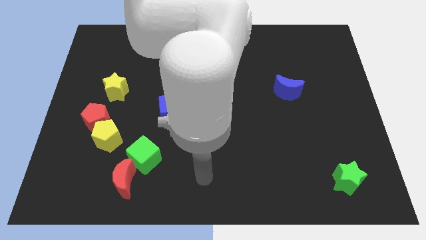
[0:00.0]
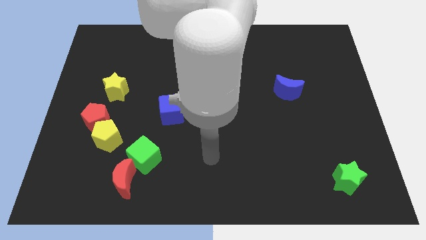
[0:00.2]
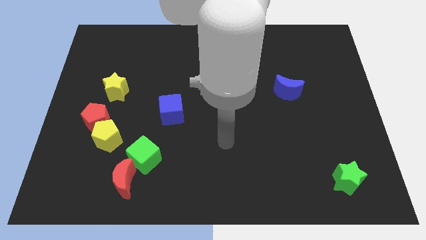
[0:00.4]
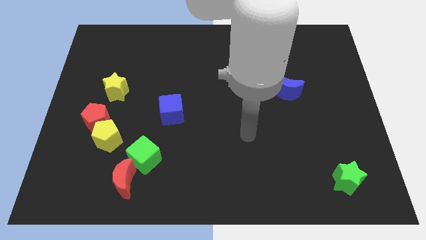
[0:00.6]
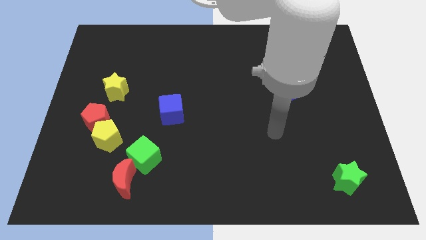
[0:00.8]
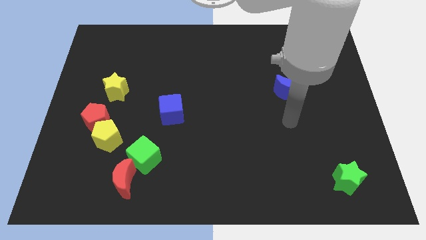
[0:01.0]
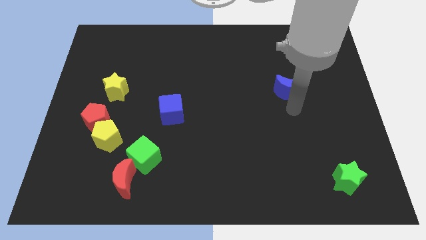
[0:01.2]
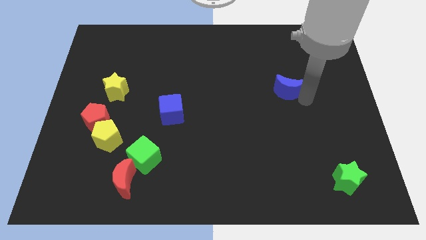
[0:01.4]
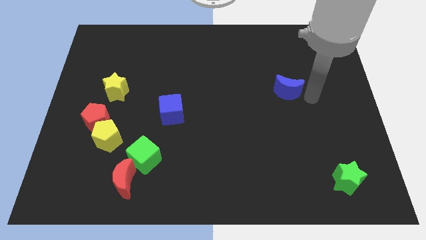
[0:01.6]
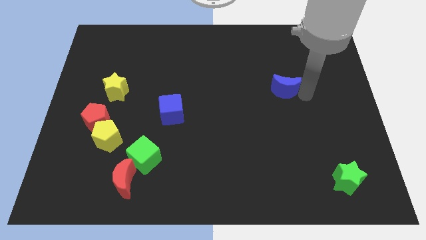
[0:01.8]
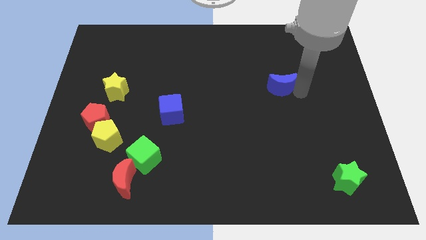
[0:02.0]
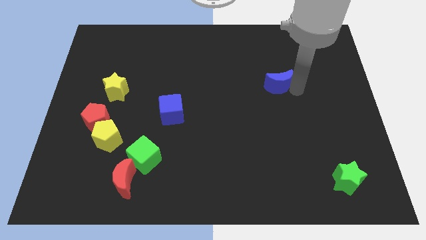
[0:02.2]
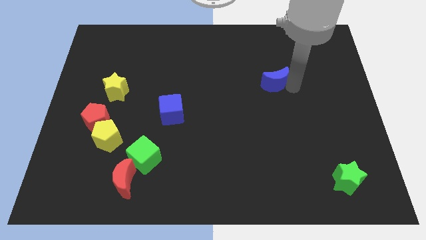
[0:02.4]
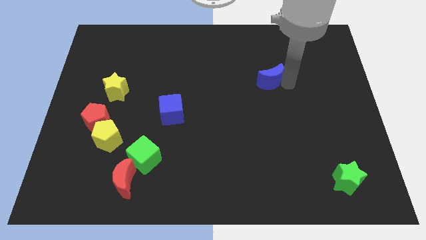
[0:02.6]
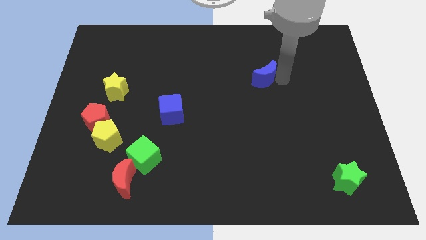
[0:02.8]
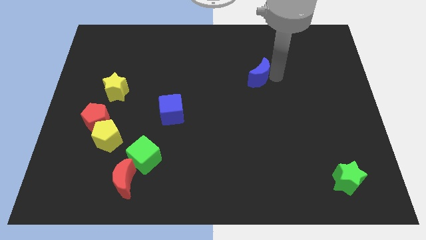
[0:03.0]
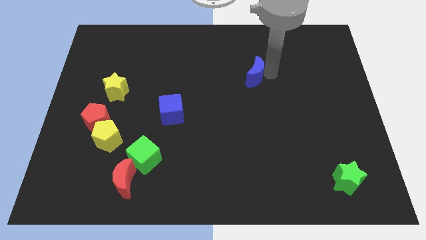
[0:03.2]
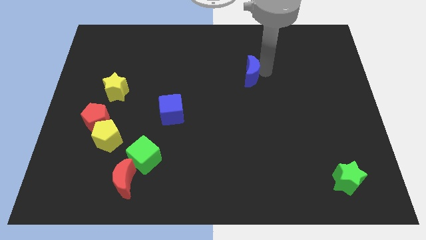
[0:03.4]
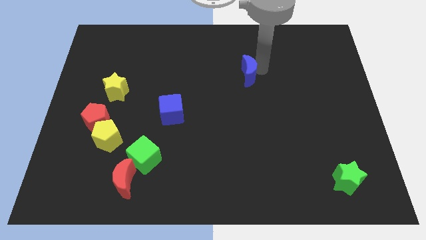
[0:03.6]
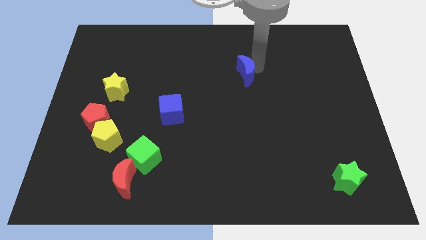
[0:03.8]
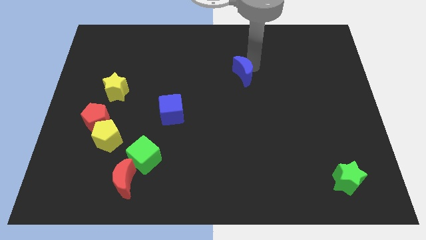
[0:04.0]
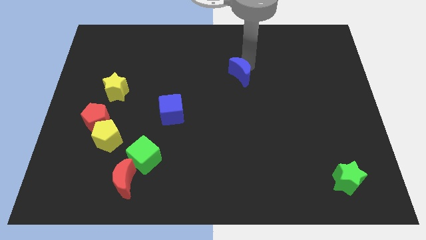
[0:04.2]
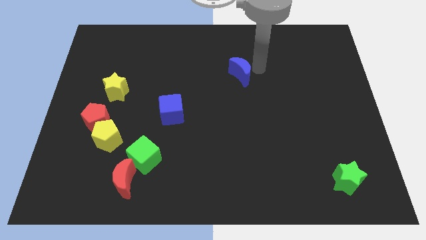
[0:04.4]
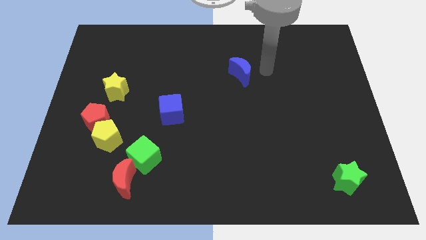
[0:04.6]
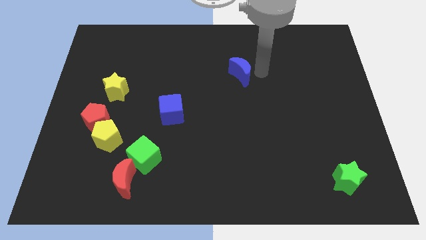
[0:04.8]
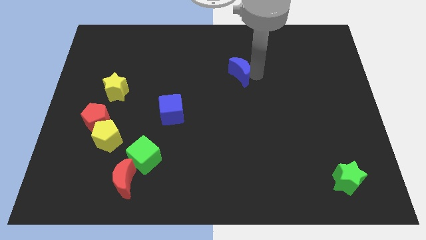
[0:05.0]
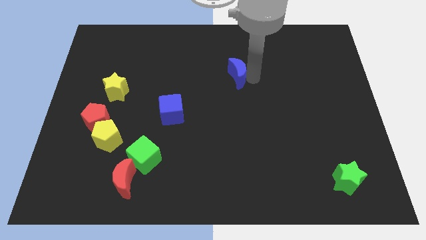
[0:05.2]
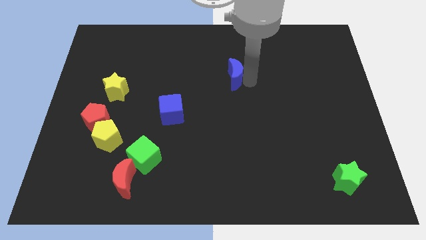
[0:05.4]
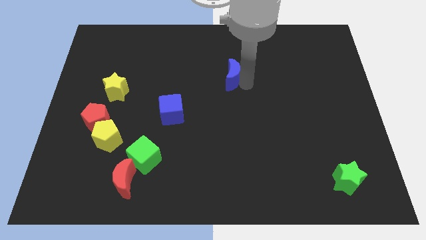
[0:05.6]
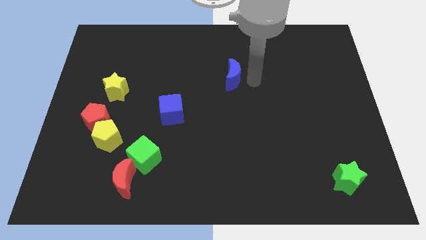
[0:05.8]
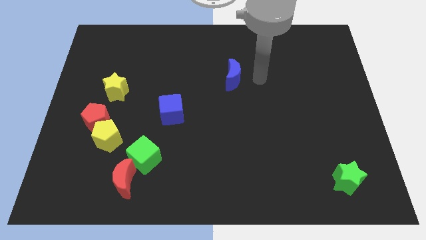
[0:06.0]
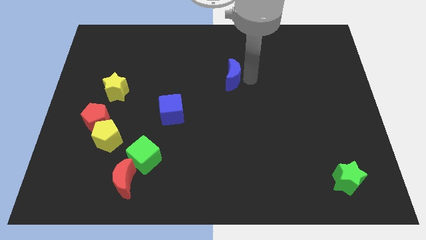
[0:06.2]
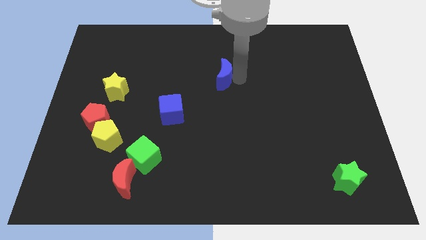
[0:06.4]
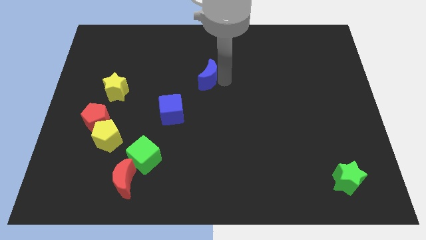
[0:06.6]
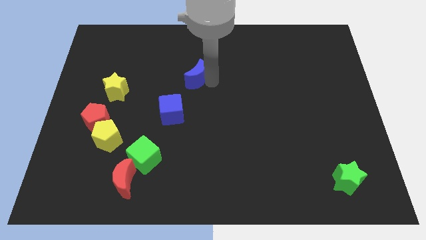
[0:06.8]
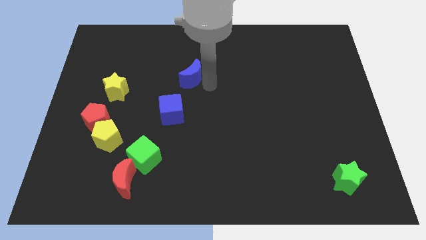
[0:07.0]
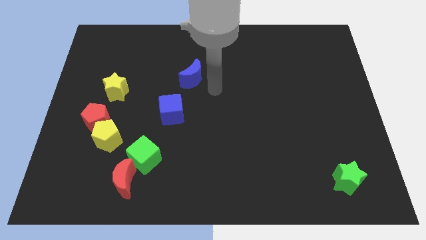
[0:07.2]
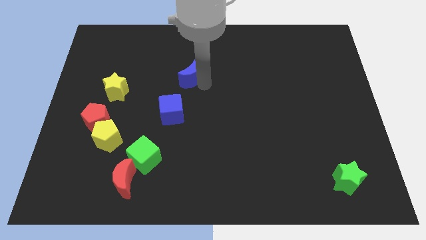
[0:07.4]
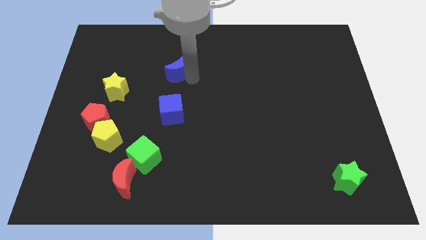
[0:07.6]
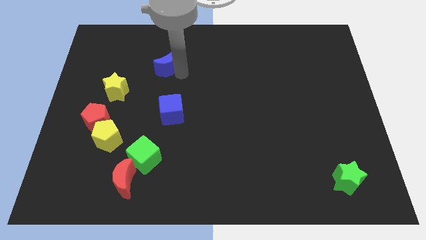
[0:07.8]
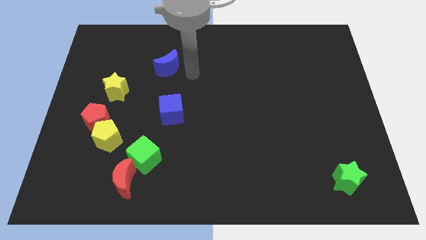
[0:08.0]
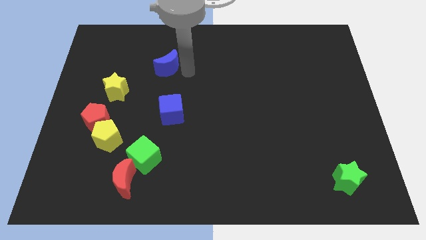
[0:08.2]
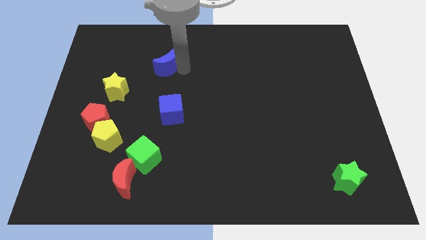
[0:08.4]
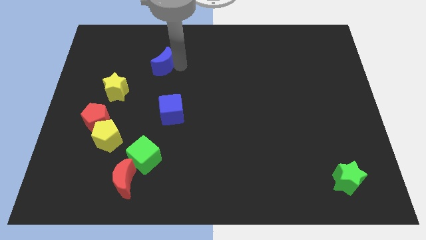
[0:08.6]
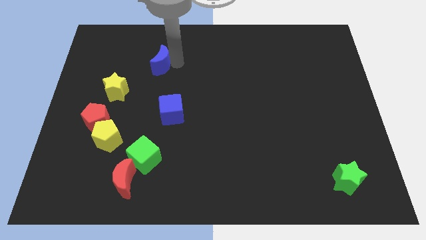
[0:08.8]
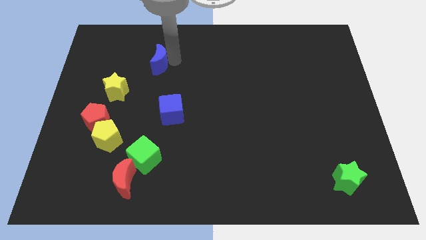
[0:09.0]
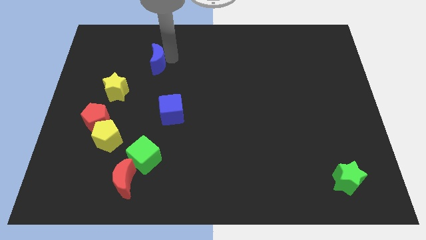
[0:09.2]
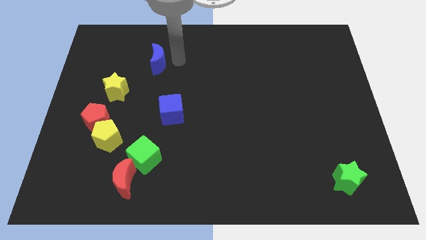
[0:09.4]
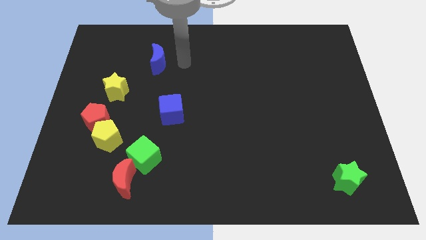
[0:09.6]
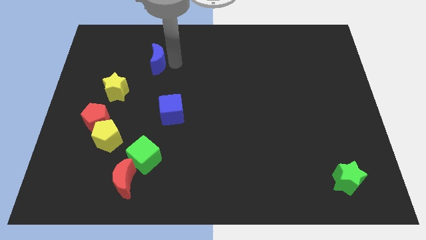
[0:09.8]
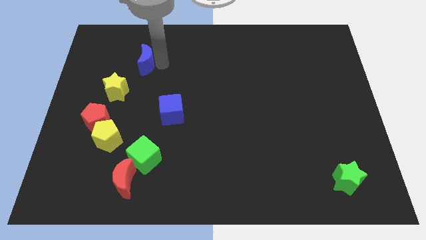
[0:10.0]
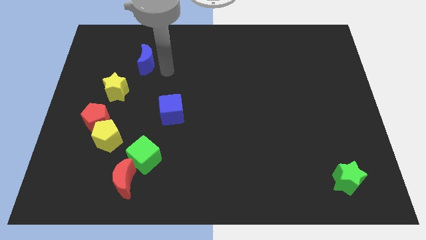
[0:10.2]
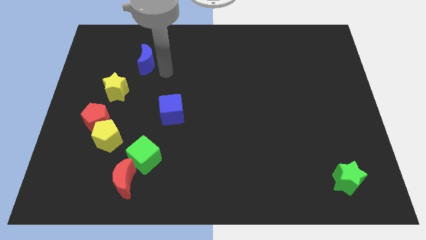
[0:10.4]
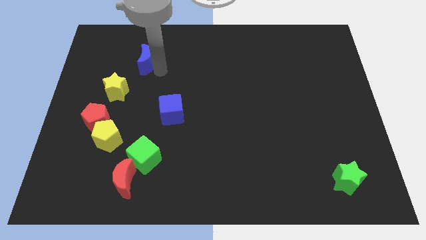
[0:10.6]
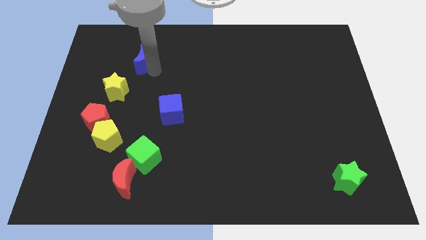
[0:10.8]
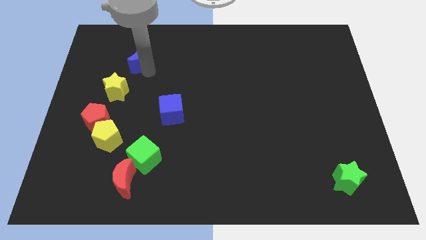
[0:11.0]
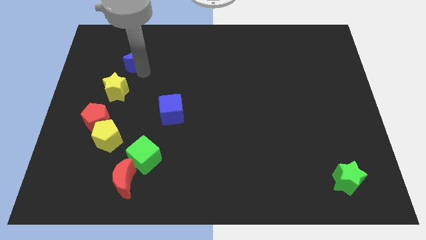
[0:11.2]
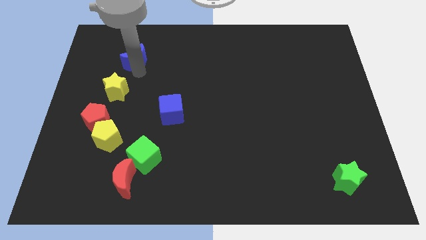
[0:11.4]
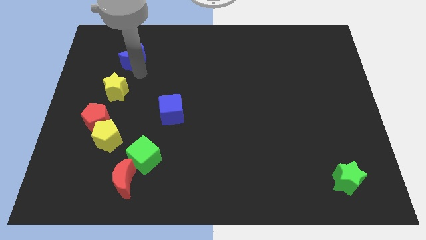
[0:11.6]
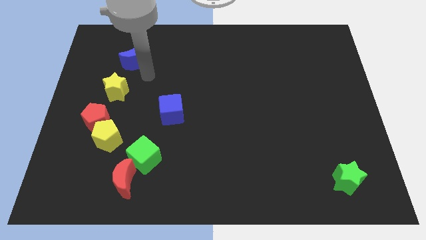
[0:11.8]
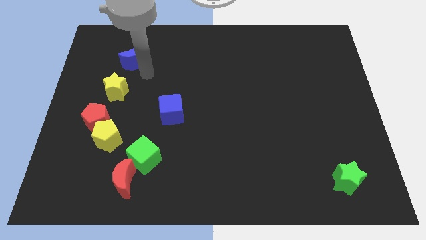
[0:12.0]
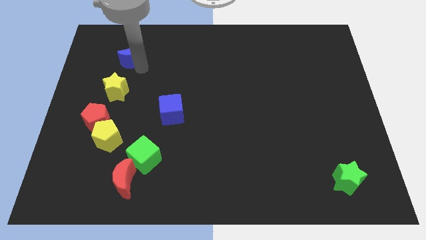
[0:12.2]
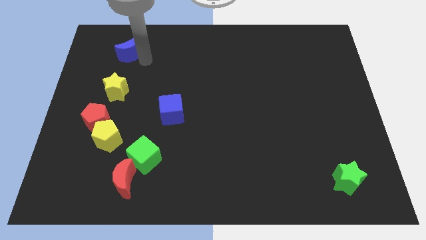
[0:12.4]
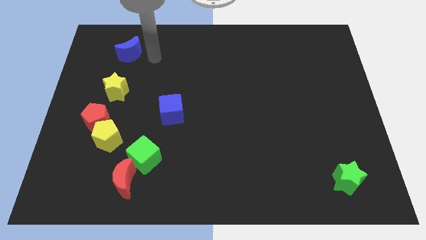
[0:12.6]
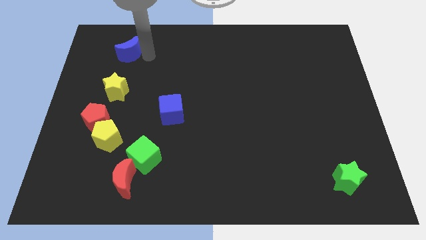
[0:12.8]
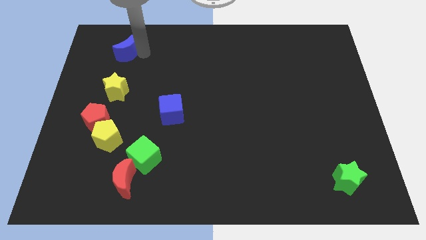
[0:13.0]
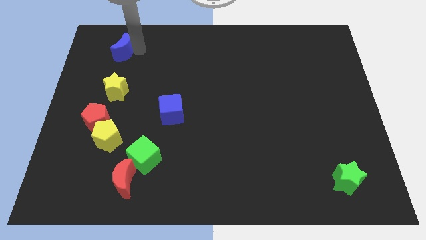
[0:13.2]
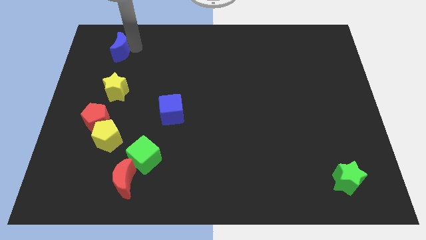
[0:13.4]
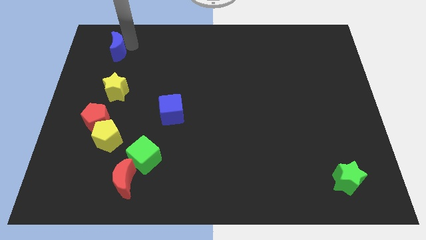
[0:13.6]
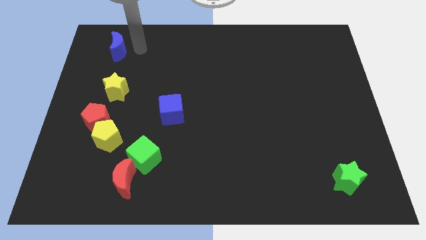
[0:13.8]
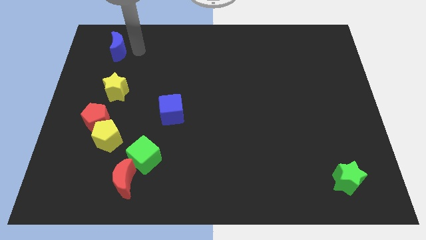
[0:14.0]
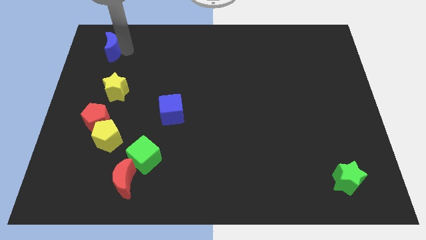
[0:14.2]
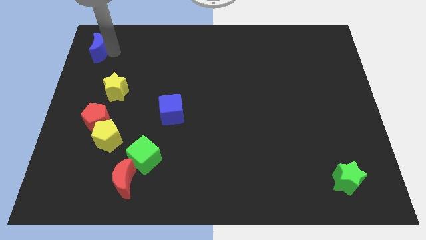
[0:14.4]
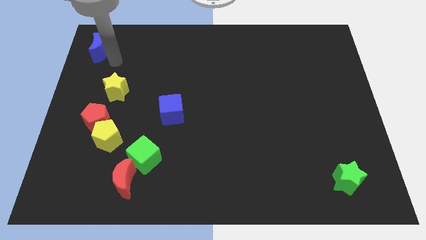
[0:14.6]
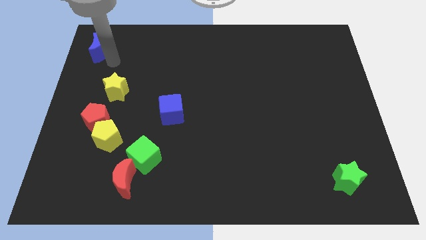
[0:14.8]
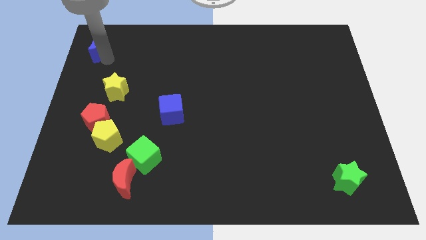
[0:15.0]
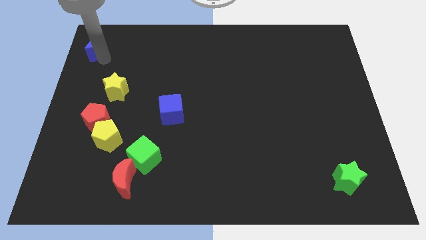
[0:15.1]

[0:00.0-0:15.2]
slide the blue moon to the top left corner

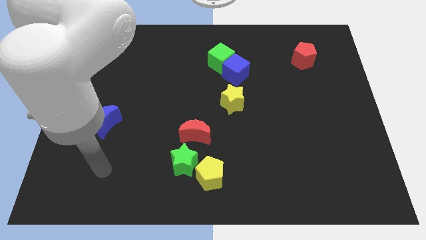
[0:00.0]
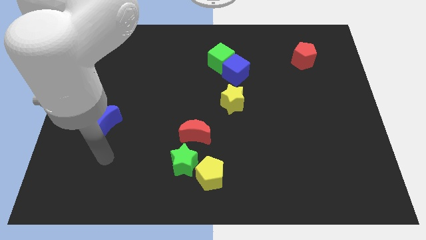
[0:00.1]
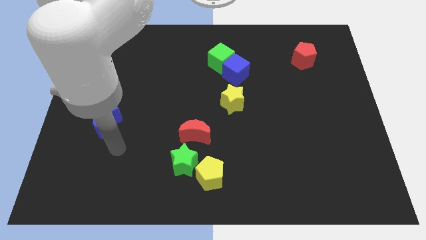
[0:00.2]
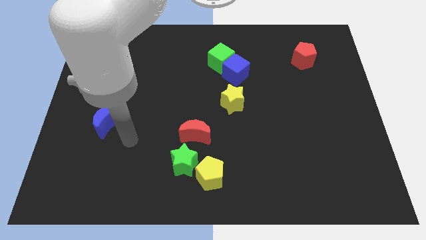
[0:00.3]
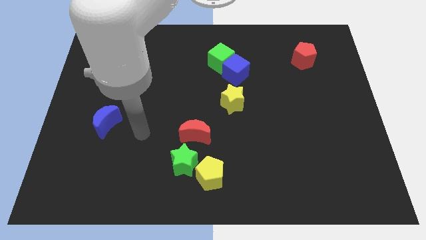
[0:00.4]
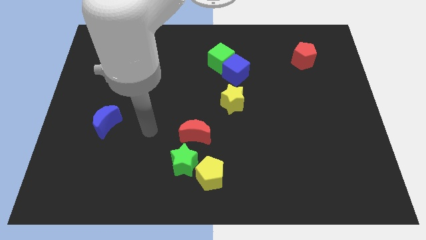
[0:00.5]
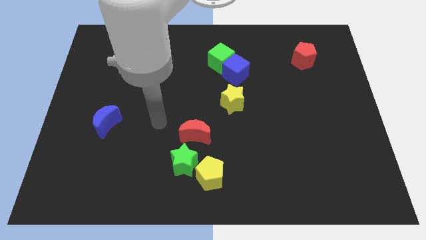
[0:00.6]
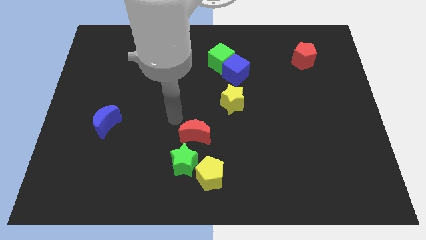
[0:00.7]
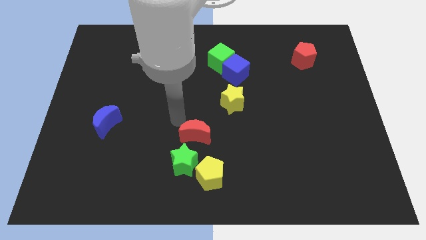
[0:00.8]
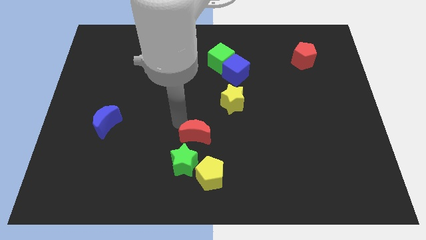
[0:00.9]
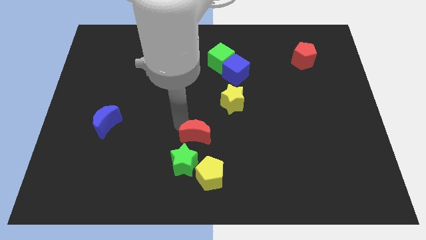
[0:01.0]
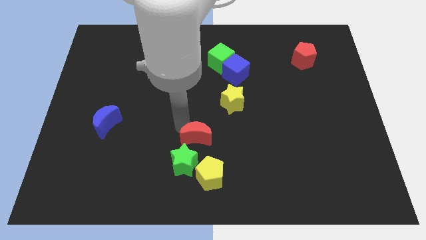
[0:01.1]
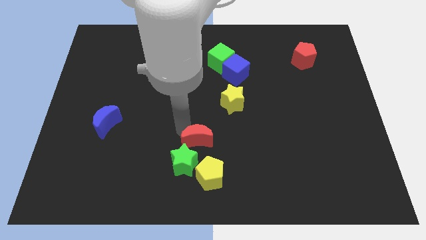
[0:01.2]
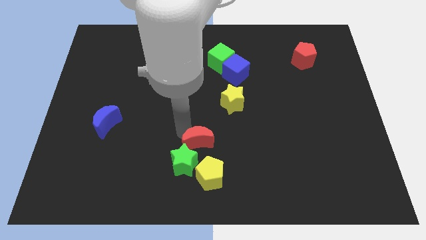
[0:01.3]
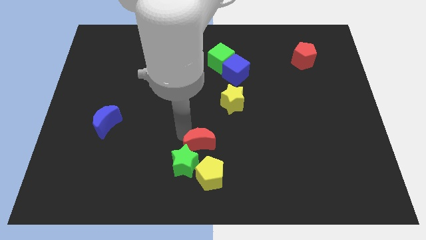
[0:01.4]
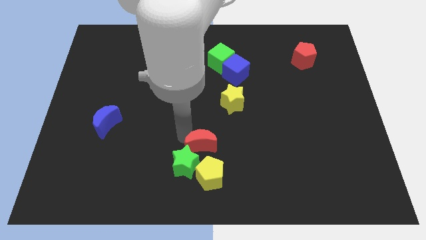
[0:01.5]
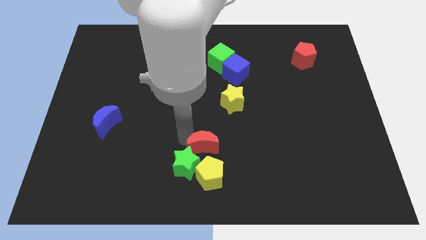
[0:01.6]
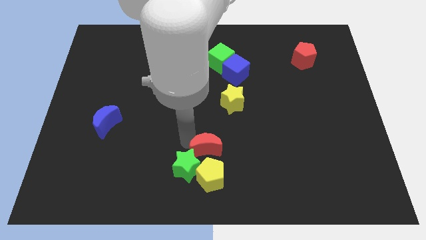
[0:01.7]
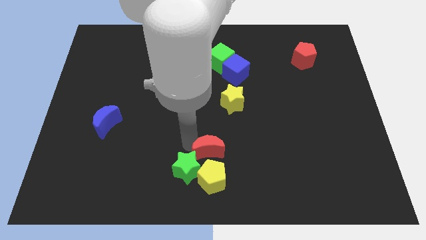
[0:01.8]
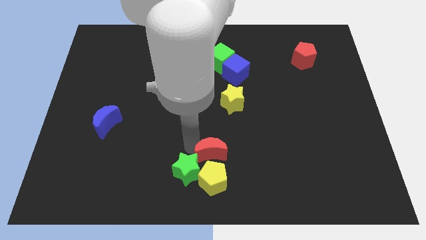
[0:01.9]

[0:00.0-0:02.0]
slide the red moon to the bottom side
